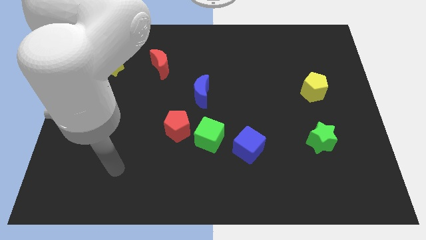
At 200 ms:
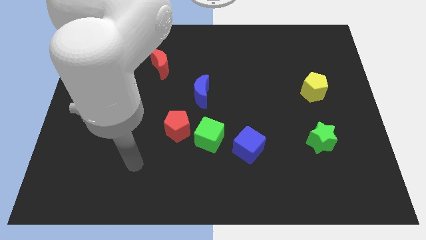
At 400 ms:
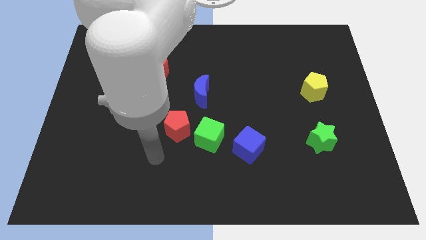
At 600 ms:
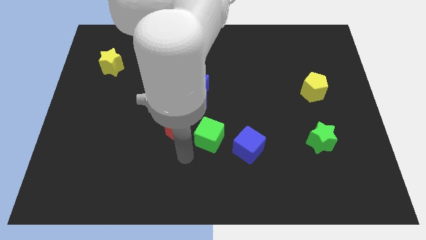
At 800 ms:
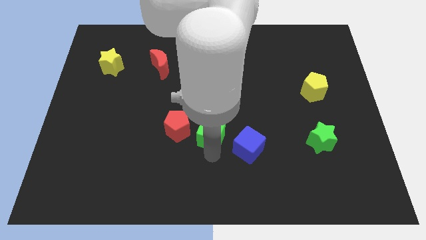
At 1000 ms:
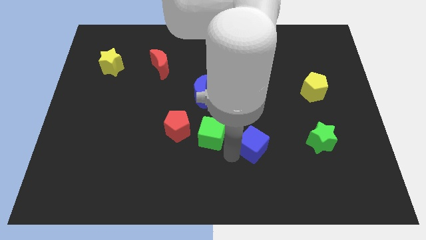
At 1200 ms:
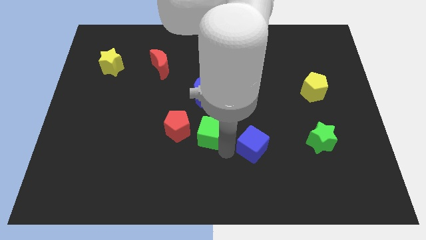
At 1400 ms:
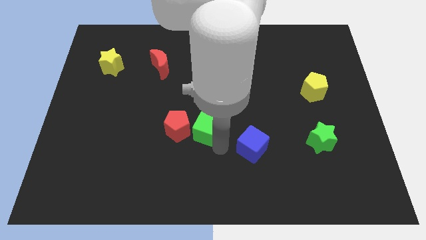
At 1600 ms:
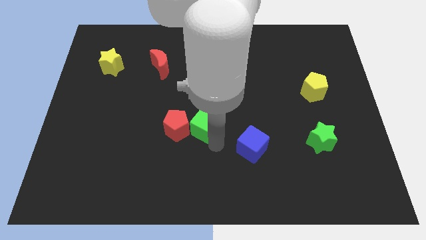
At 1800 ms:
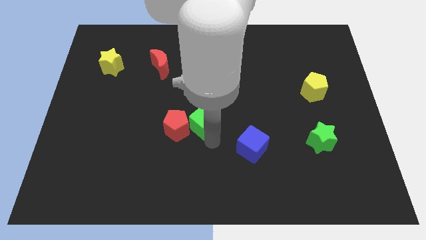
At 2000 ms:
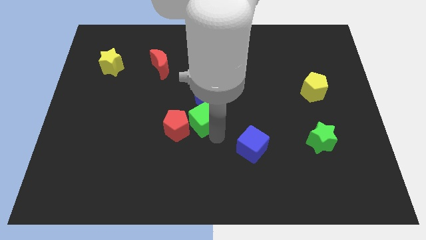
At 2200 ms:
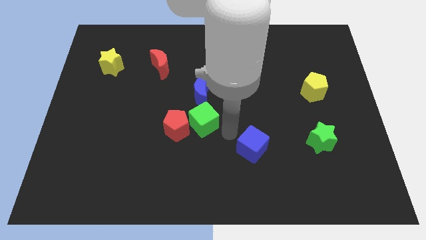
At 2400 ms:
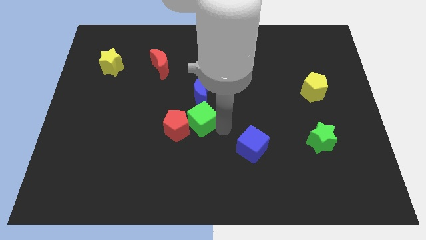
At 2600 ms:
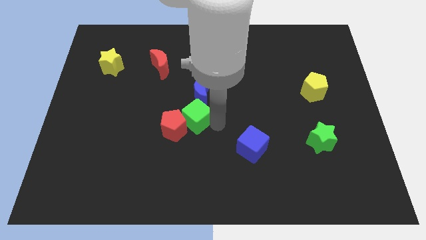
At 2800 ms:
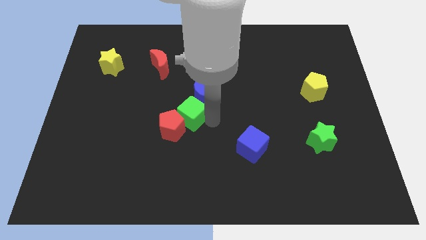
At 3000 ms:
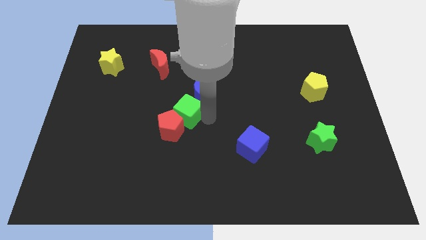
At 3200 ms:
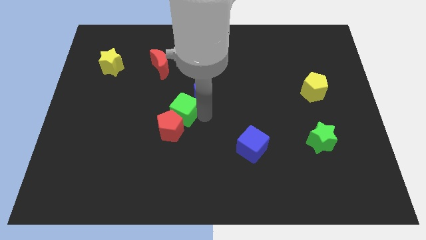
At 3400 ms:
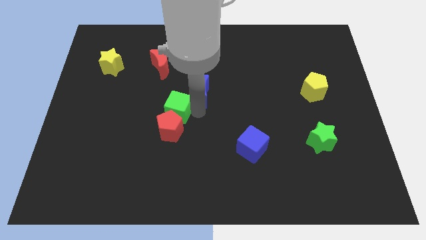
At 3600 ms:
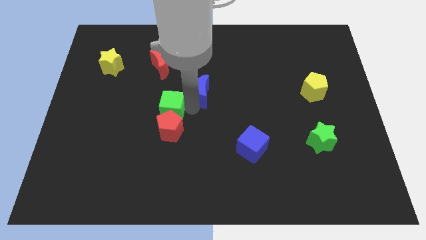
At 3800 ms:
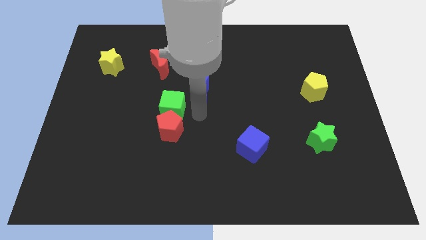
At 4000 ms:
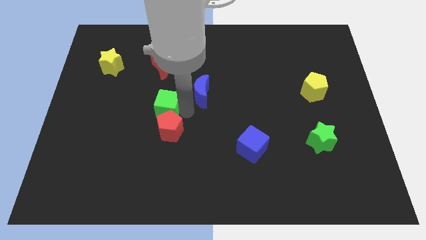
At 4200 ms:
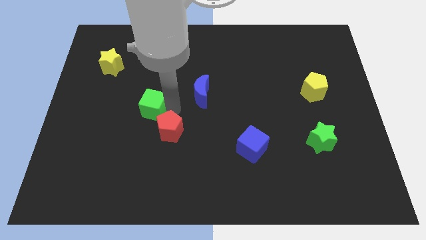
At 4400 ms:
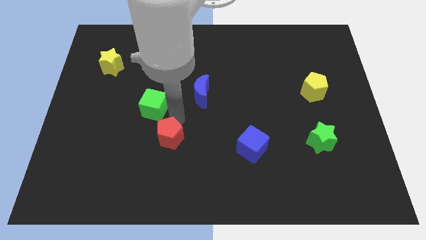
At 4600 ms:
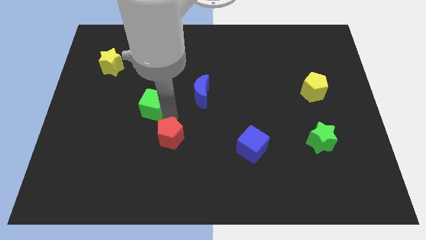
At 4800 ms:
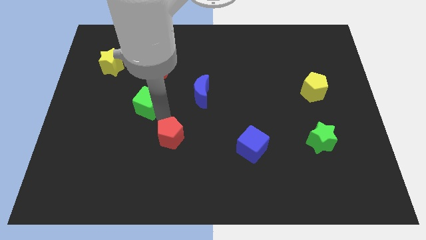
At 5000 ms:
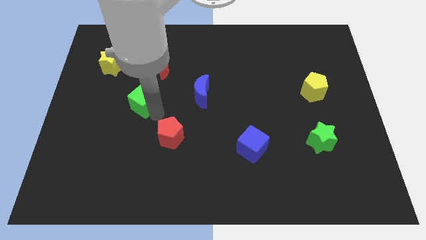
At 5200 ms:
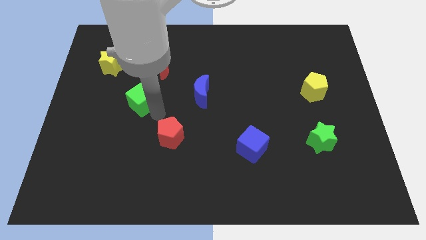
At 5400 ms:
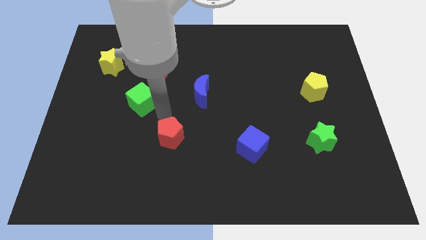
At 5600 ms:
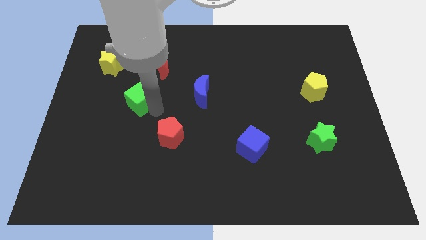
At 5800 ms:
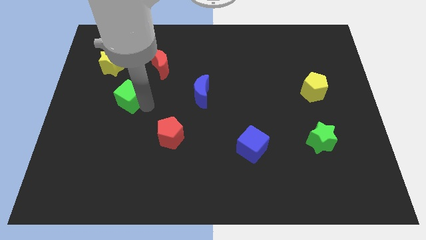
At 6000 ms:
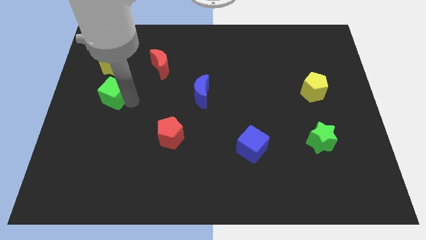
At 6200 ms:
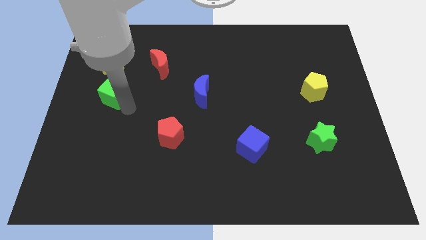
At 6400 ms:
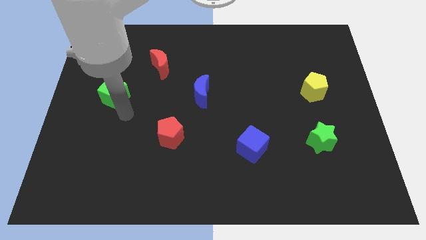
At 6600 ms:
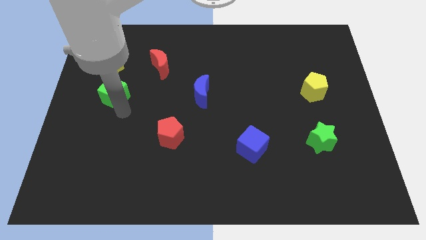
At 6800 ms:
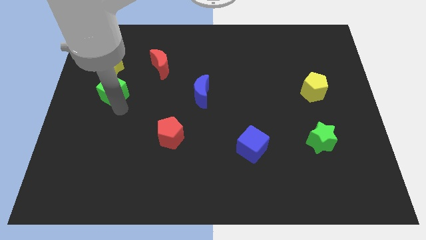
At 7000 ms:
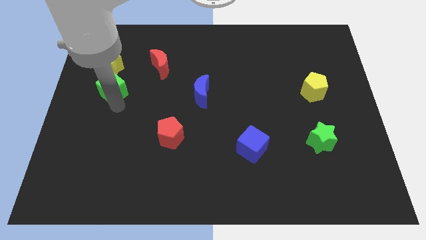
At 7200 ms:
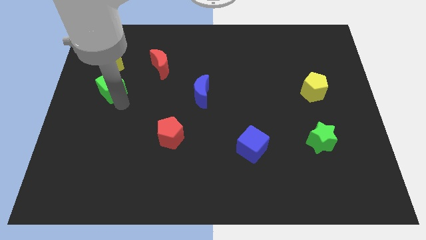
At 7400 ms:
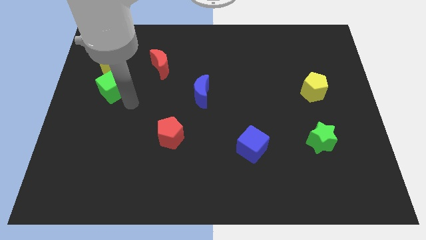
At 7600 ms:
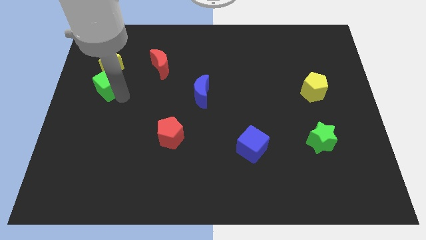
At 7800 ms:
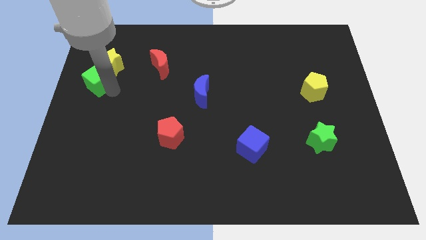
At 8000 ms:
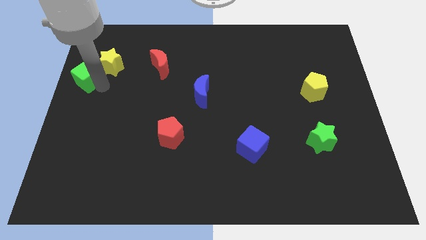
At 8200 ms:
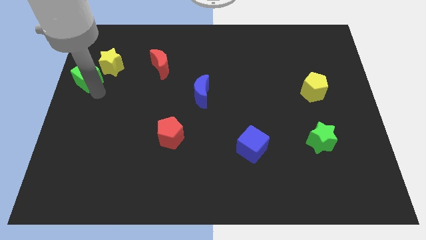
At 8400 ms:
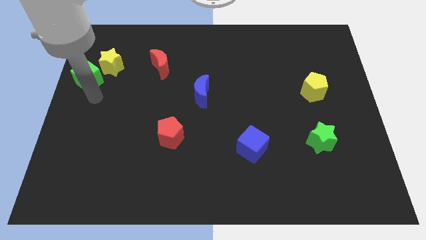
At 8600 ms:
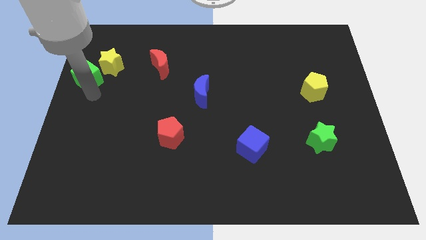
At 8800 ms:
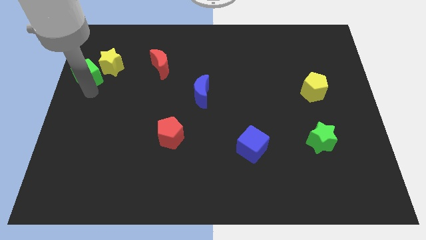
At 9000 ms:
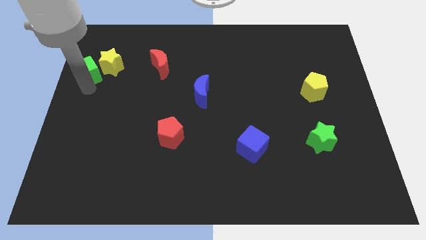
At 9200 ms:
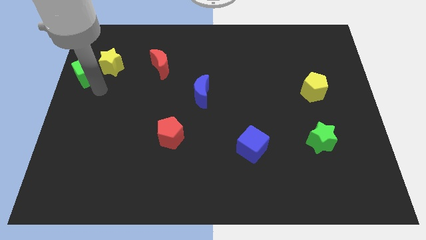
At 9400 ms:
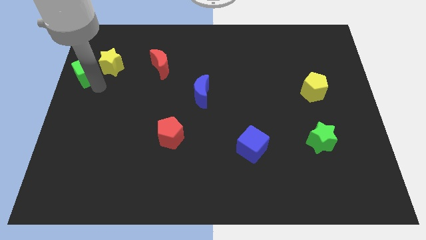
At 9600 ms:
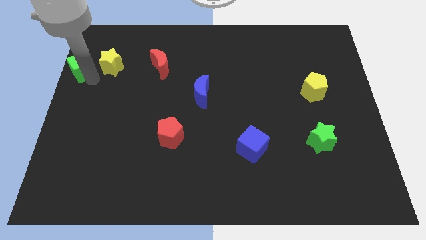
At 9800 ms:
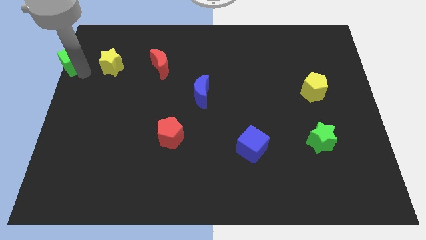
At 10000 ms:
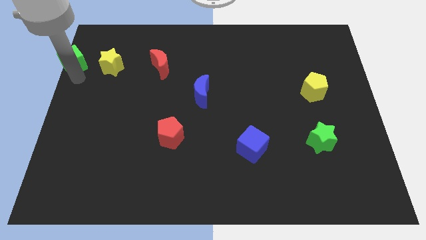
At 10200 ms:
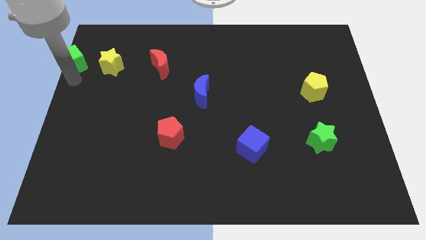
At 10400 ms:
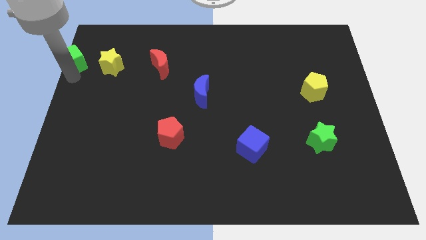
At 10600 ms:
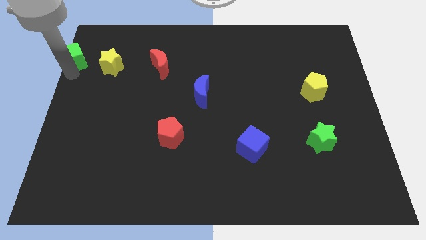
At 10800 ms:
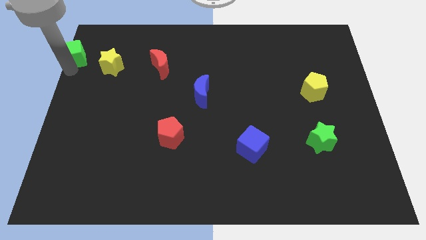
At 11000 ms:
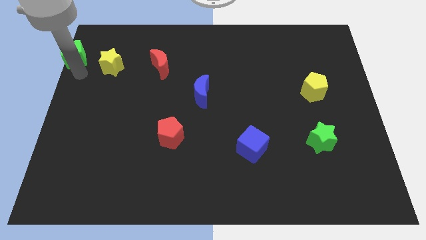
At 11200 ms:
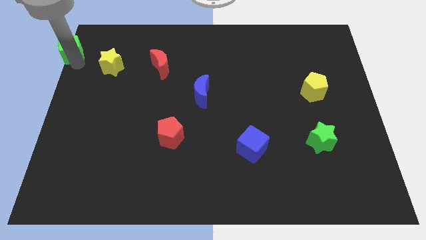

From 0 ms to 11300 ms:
slide the green cube to the upper left corner
